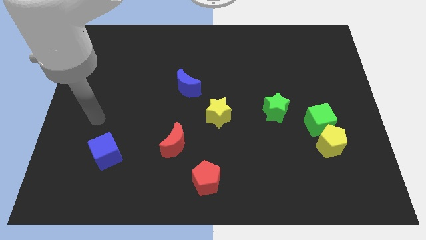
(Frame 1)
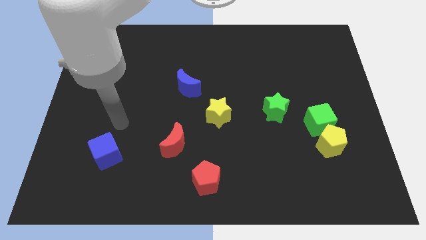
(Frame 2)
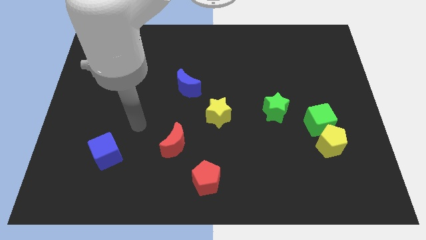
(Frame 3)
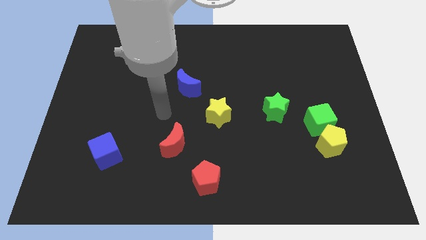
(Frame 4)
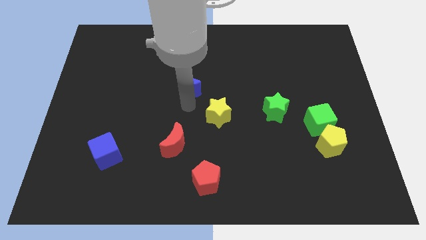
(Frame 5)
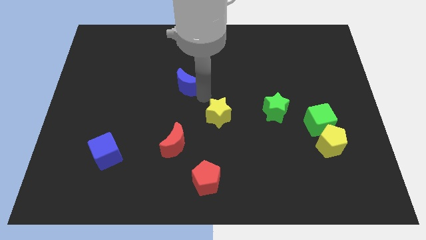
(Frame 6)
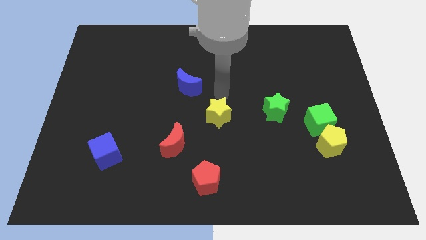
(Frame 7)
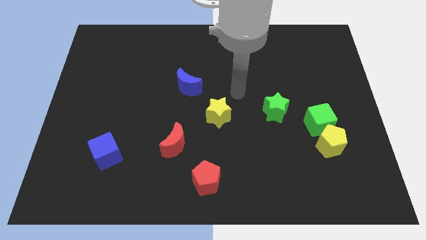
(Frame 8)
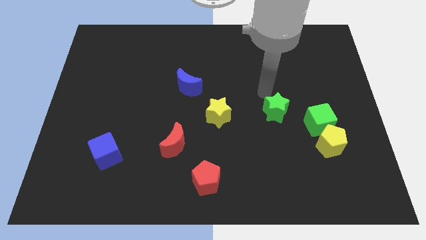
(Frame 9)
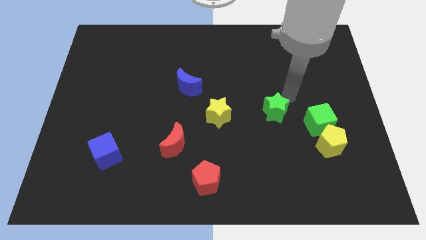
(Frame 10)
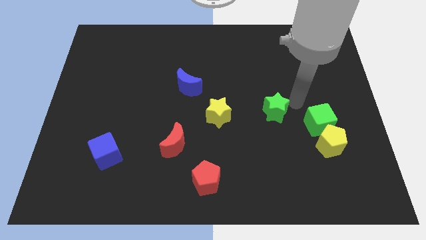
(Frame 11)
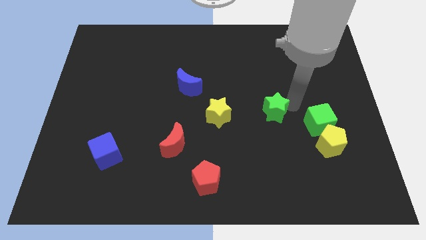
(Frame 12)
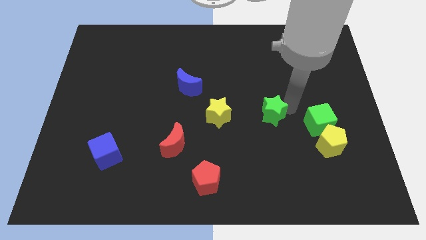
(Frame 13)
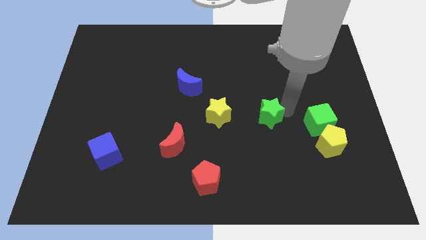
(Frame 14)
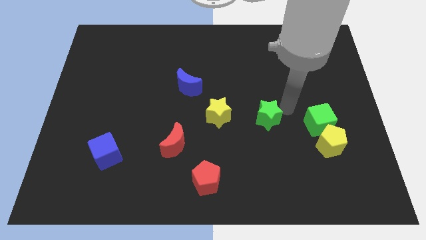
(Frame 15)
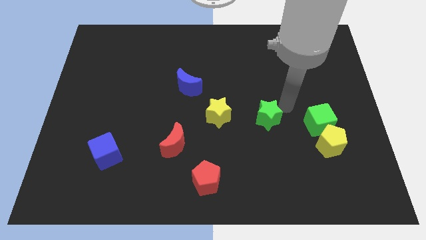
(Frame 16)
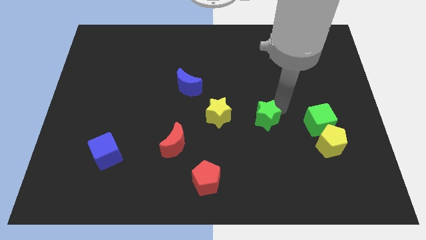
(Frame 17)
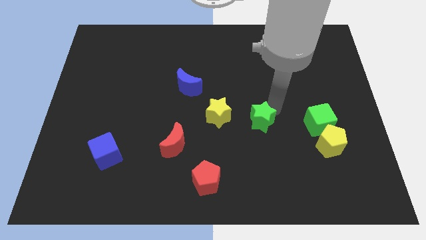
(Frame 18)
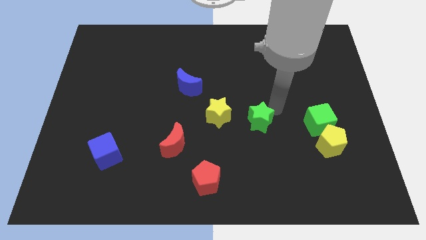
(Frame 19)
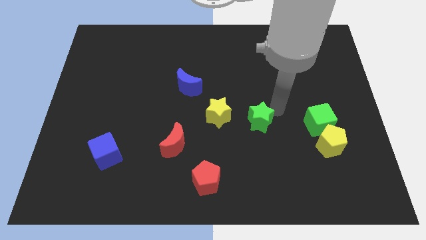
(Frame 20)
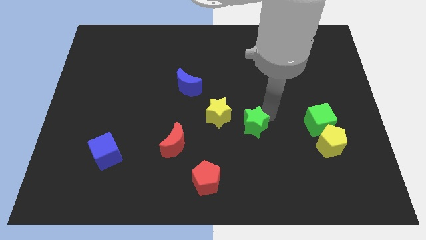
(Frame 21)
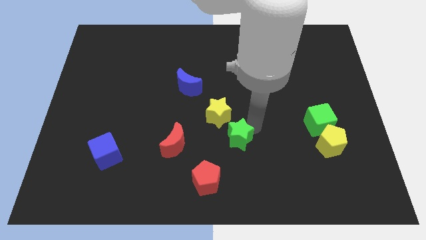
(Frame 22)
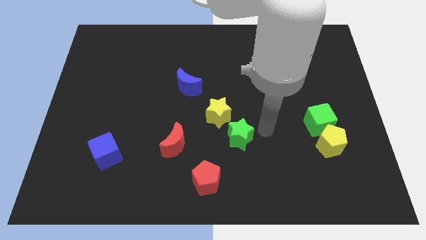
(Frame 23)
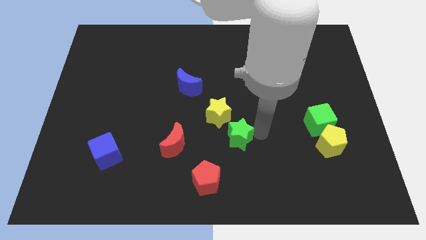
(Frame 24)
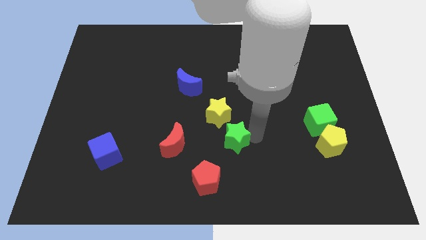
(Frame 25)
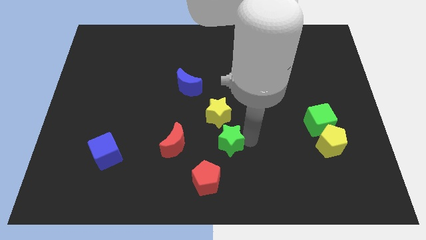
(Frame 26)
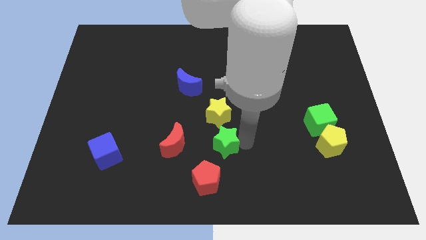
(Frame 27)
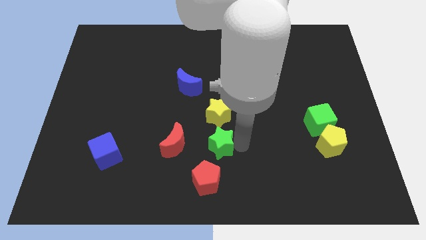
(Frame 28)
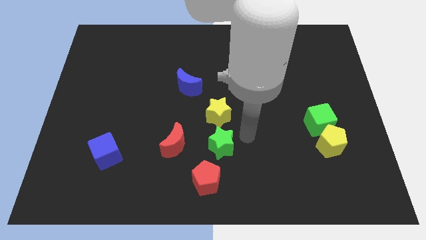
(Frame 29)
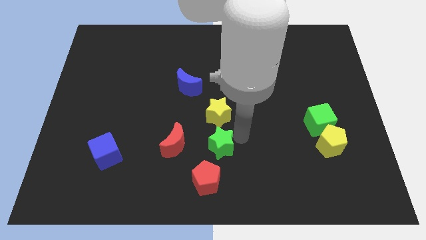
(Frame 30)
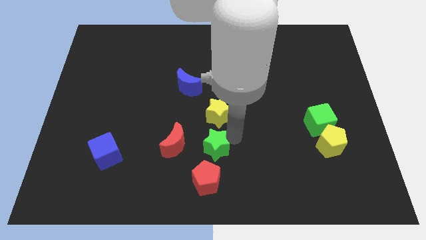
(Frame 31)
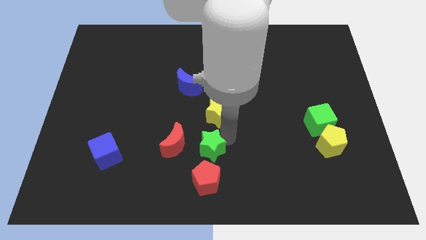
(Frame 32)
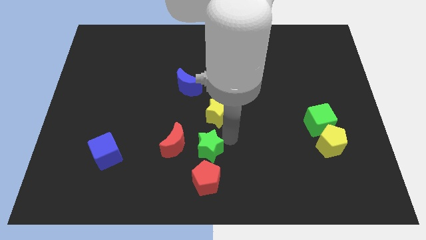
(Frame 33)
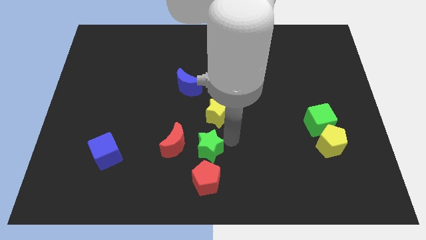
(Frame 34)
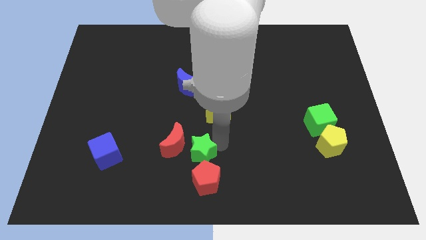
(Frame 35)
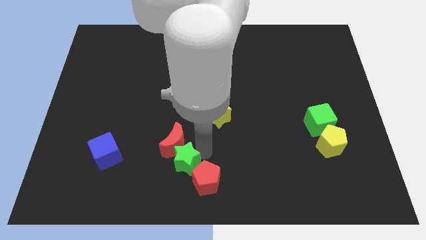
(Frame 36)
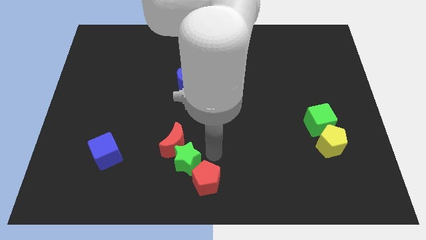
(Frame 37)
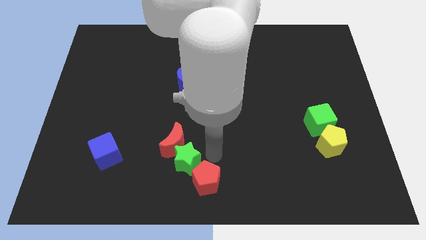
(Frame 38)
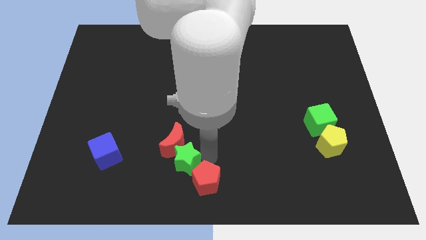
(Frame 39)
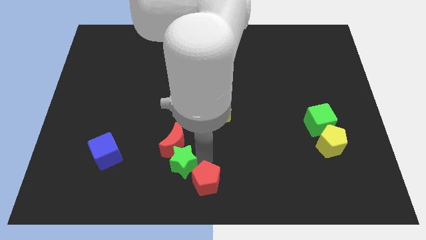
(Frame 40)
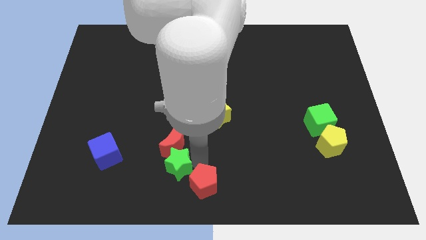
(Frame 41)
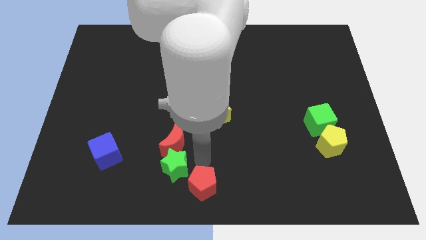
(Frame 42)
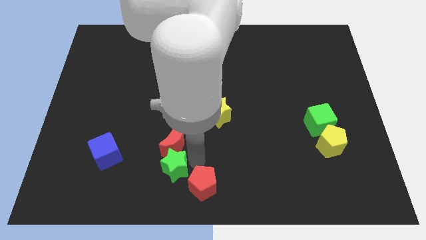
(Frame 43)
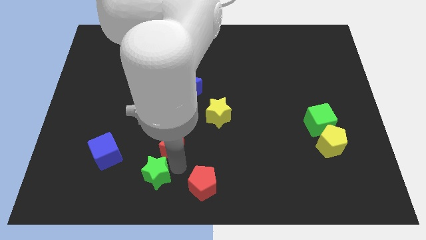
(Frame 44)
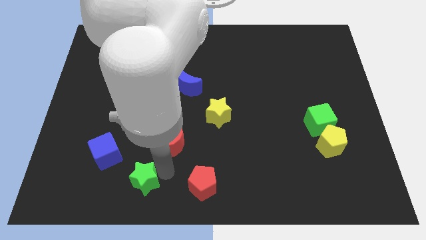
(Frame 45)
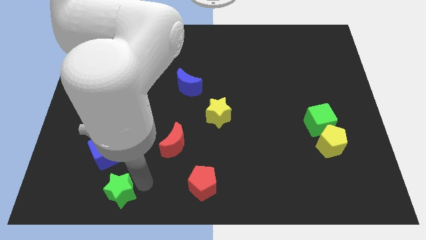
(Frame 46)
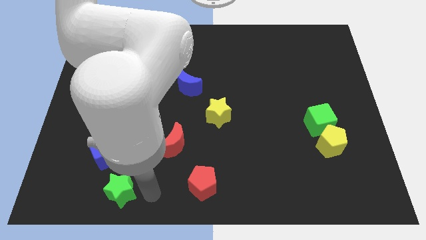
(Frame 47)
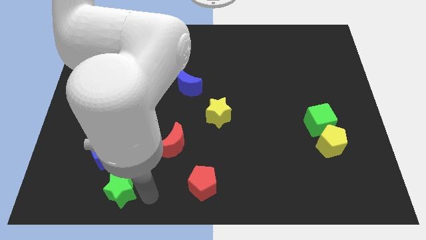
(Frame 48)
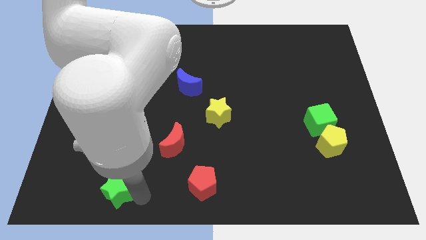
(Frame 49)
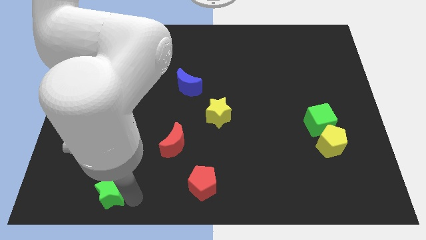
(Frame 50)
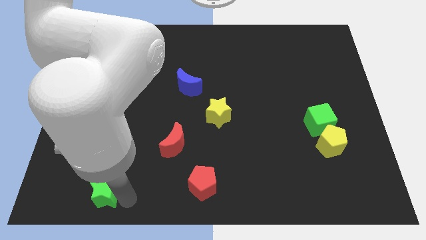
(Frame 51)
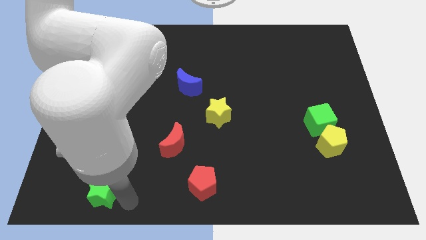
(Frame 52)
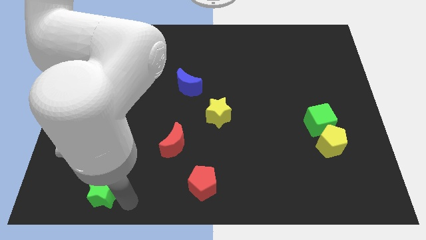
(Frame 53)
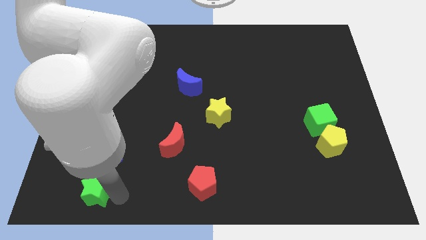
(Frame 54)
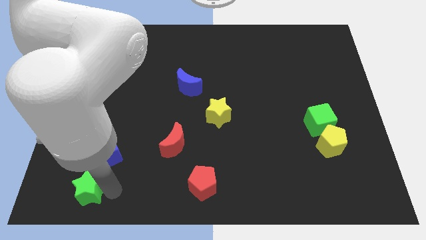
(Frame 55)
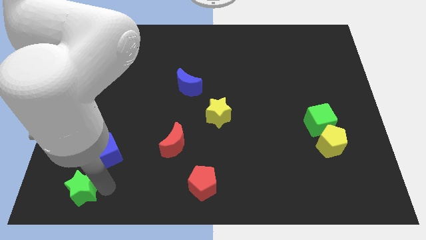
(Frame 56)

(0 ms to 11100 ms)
move the green star to the lower left corner

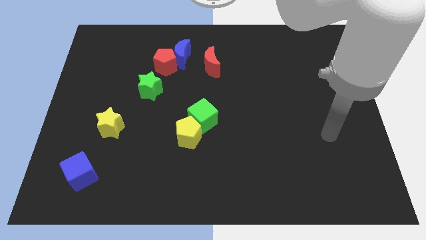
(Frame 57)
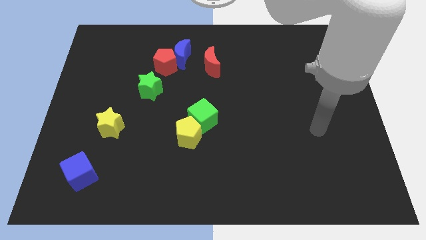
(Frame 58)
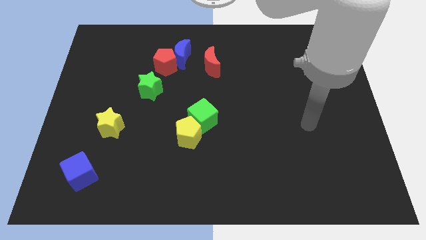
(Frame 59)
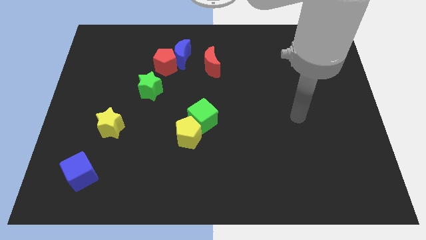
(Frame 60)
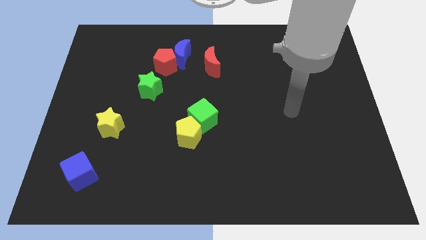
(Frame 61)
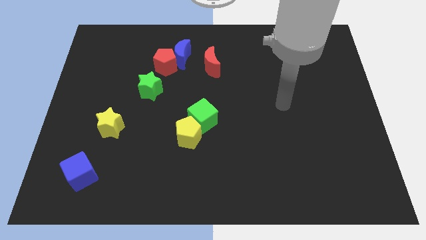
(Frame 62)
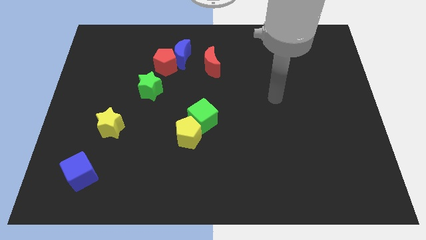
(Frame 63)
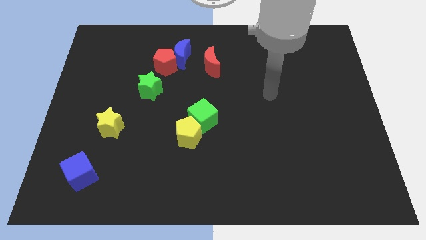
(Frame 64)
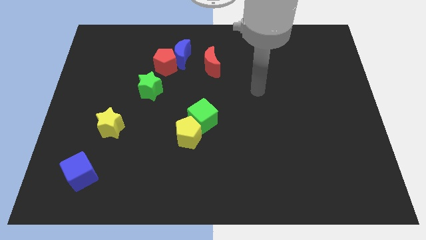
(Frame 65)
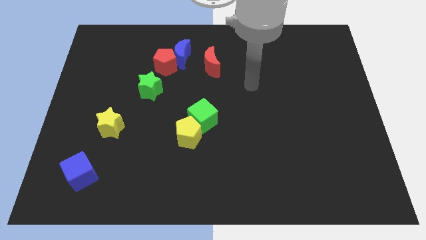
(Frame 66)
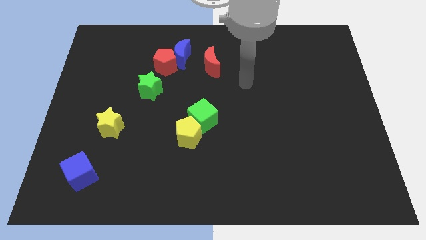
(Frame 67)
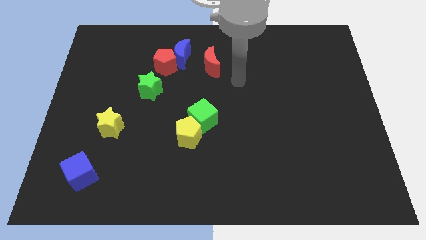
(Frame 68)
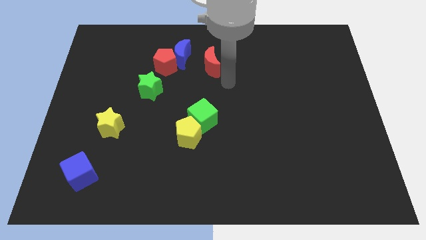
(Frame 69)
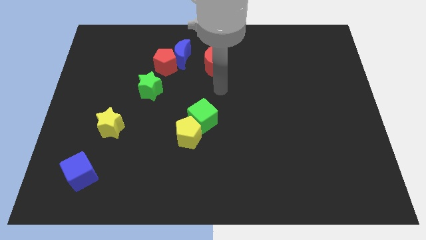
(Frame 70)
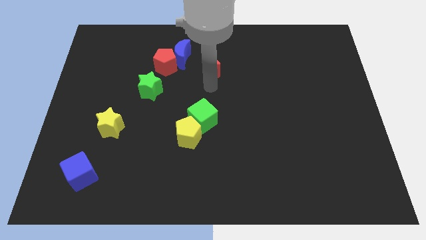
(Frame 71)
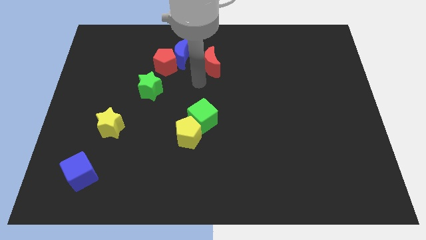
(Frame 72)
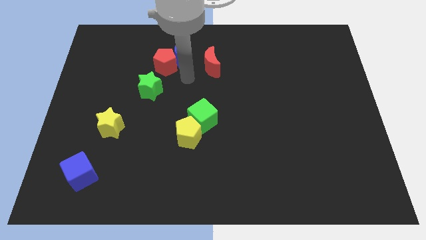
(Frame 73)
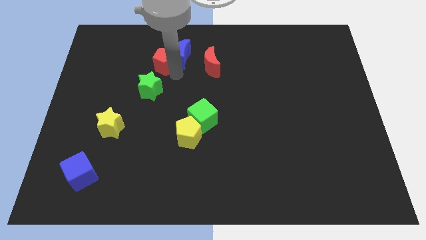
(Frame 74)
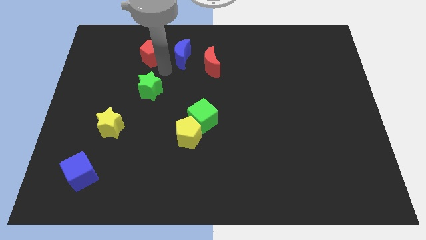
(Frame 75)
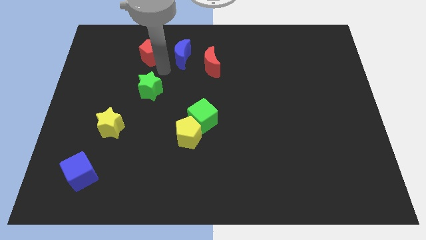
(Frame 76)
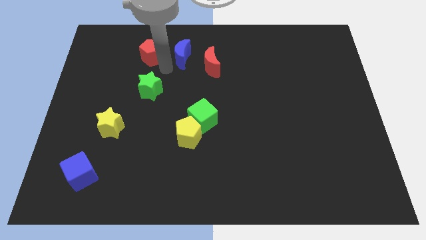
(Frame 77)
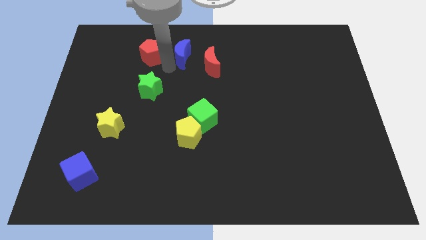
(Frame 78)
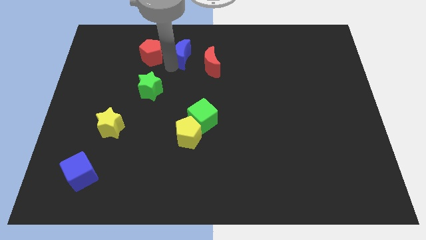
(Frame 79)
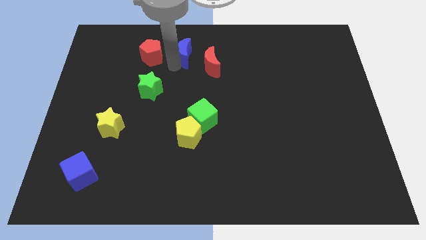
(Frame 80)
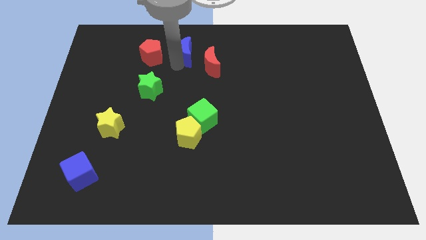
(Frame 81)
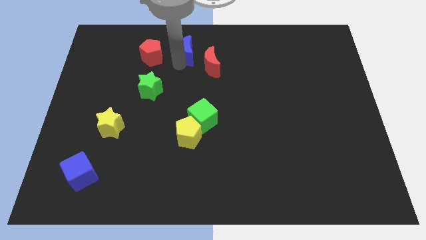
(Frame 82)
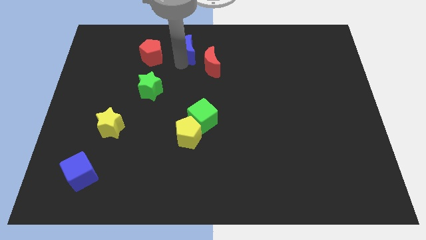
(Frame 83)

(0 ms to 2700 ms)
put the blue moon to the towards your base
